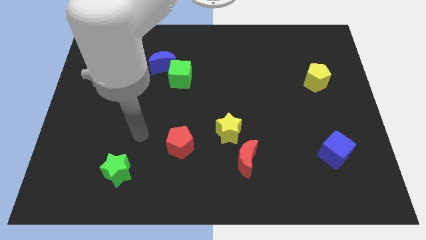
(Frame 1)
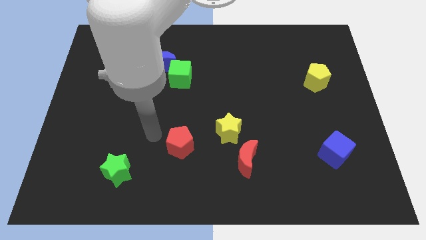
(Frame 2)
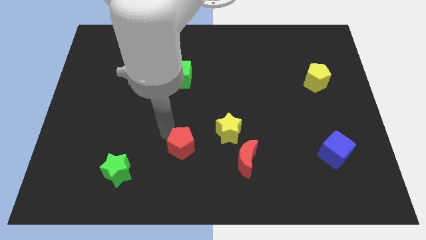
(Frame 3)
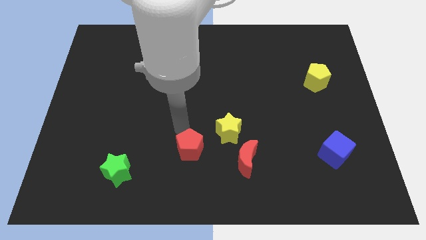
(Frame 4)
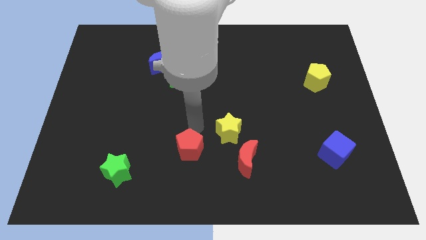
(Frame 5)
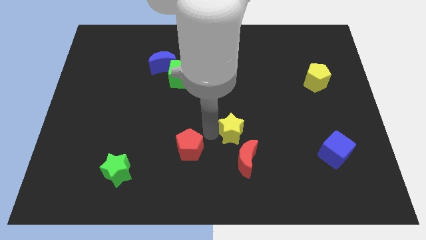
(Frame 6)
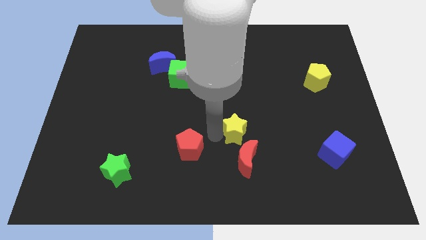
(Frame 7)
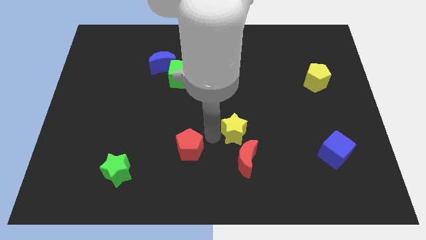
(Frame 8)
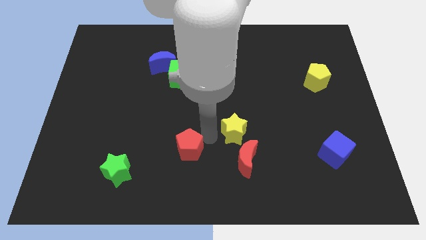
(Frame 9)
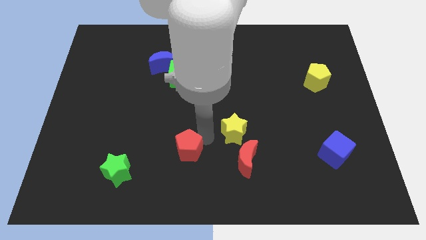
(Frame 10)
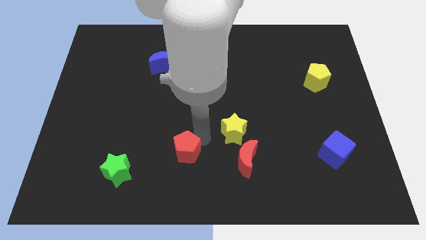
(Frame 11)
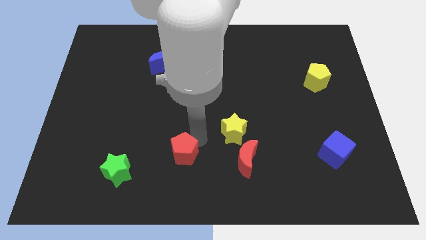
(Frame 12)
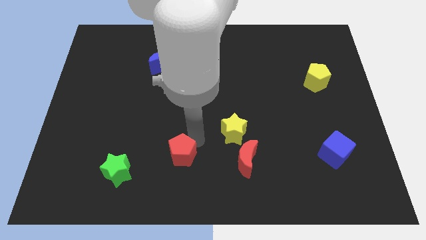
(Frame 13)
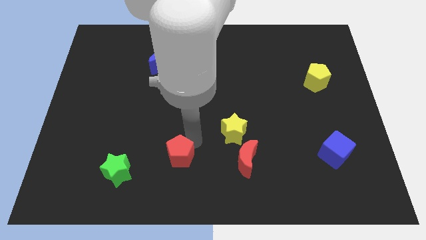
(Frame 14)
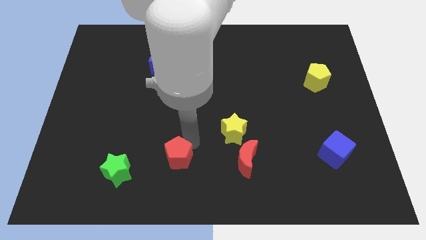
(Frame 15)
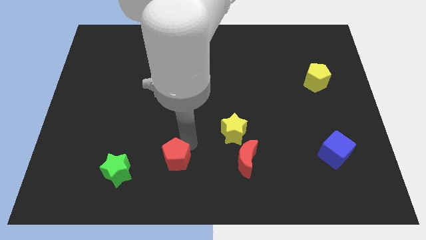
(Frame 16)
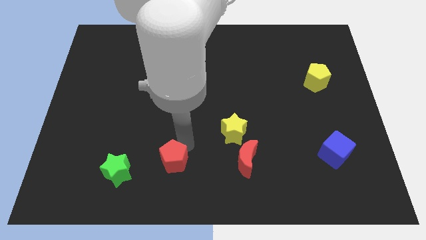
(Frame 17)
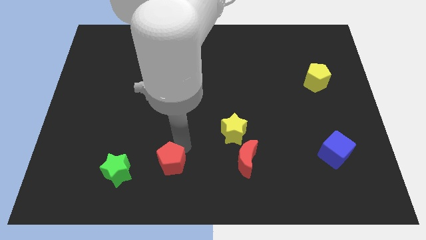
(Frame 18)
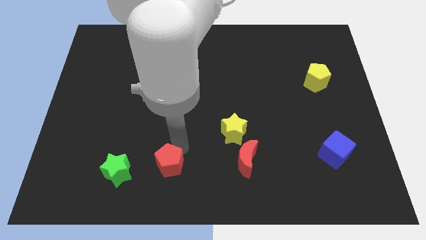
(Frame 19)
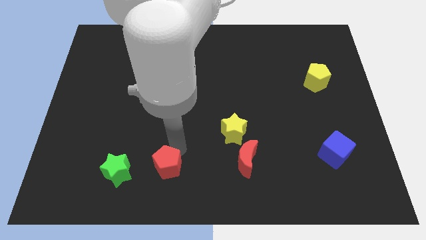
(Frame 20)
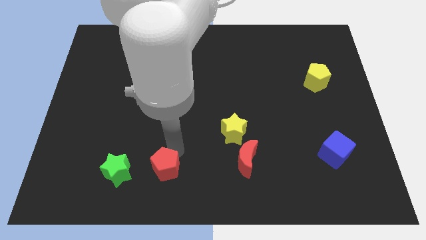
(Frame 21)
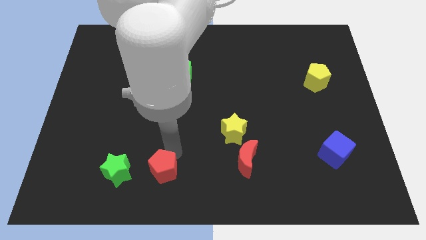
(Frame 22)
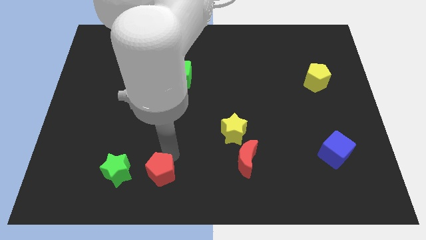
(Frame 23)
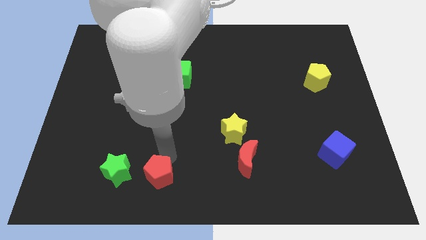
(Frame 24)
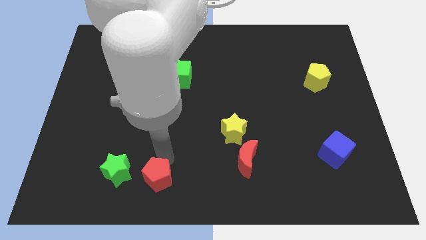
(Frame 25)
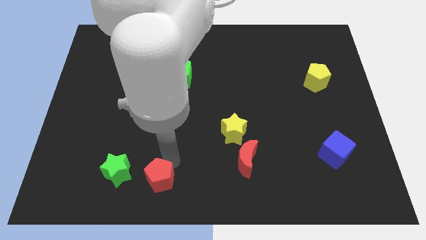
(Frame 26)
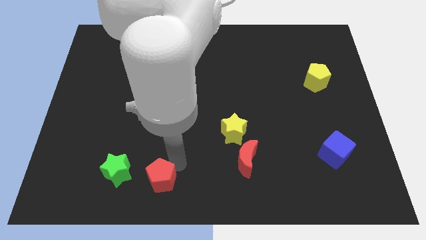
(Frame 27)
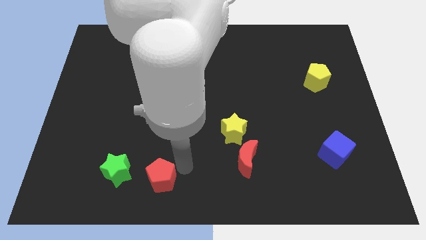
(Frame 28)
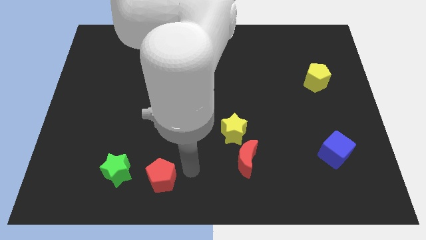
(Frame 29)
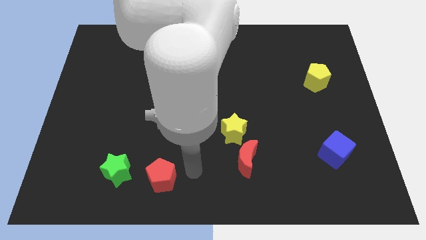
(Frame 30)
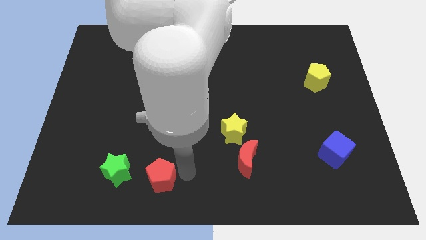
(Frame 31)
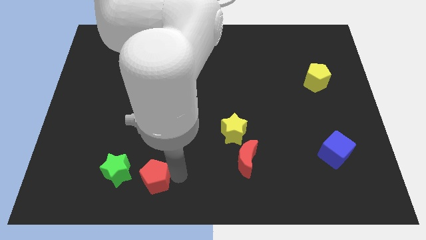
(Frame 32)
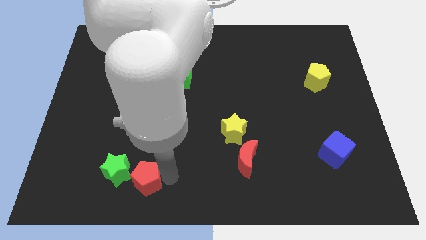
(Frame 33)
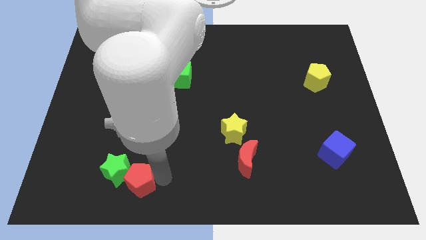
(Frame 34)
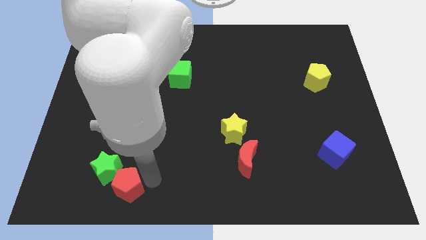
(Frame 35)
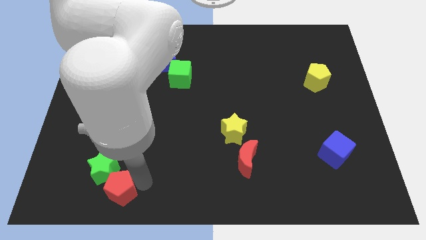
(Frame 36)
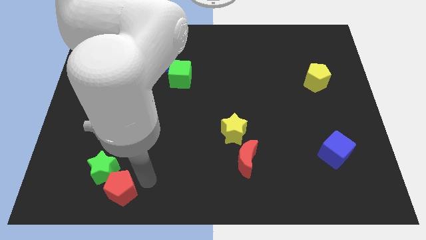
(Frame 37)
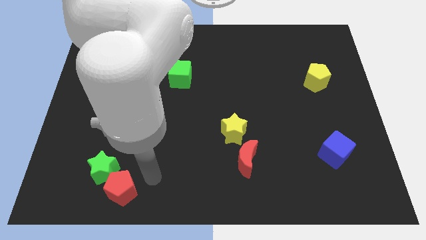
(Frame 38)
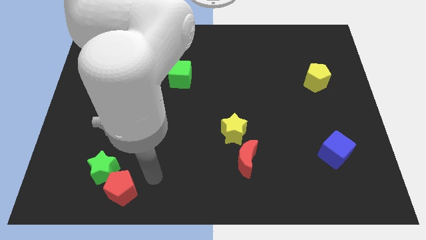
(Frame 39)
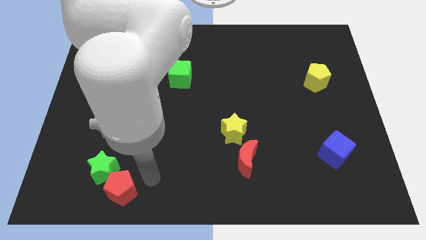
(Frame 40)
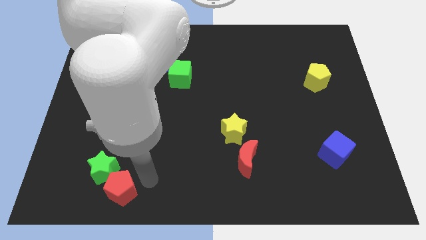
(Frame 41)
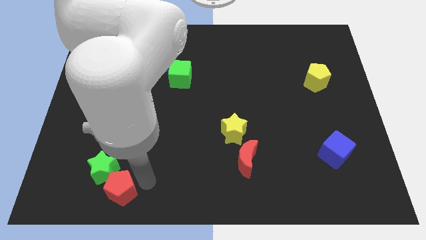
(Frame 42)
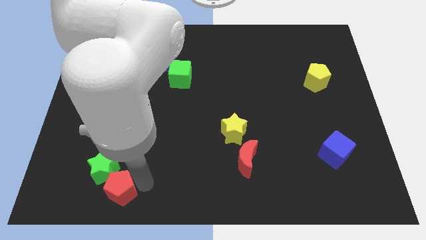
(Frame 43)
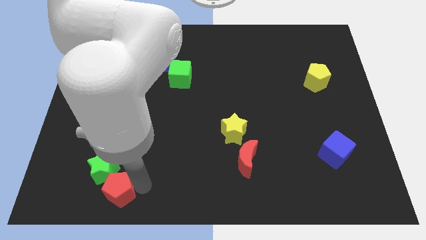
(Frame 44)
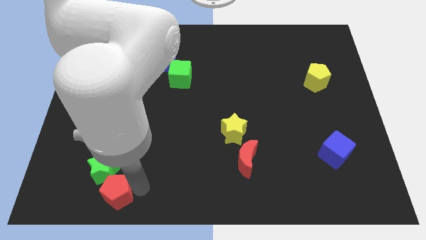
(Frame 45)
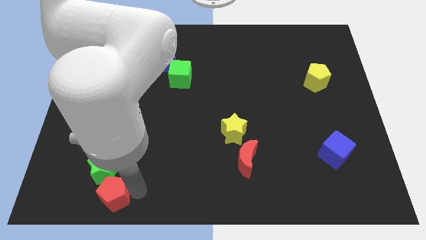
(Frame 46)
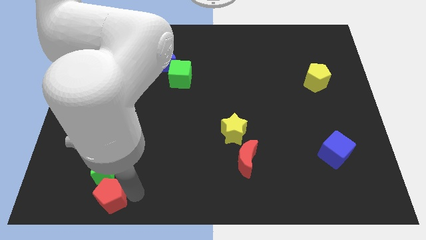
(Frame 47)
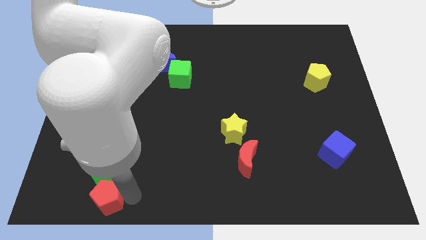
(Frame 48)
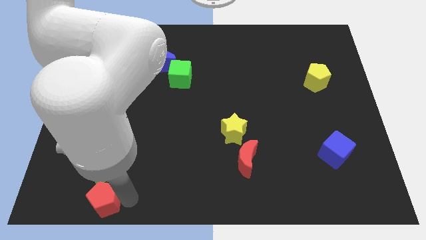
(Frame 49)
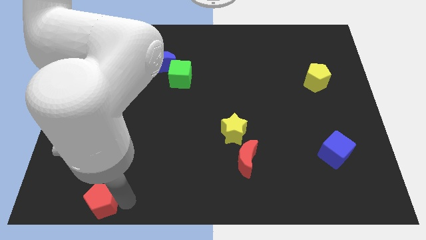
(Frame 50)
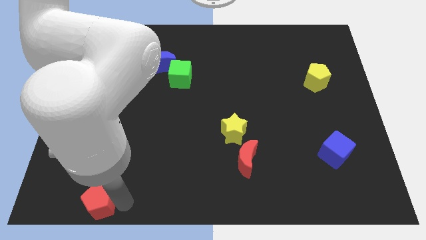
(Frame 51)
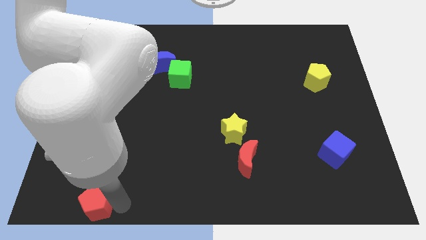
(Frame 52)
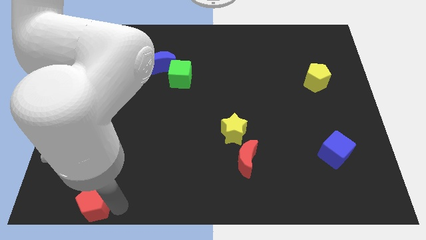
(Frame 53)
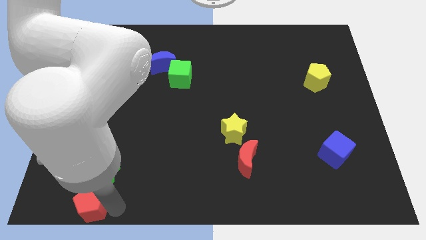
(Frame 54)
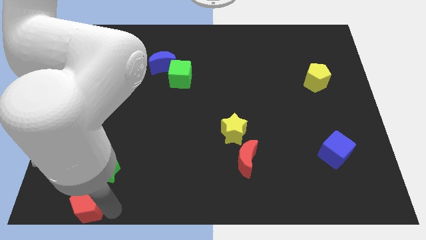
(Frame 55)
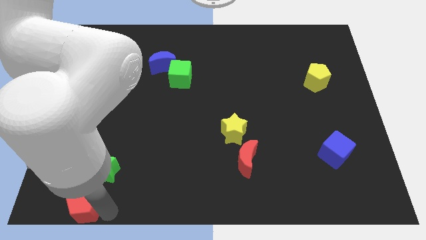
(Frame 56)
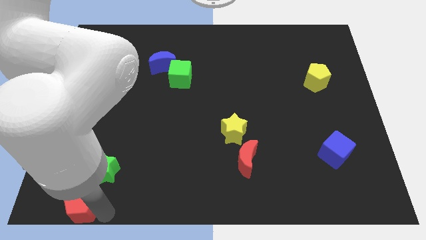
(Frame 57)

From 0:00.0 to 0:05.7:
push the red pentagon to the bottom left of the board
